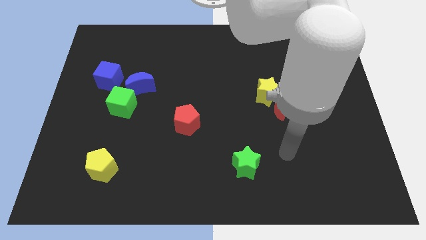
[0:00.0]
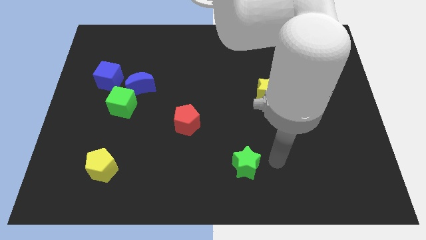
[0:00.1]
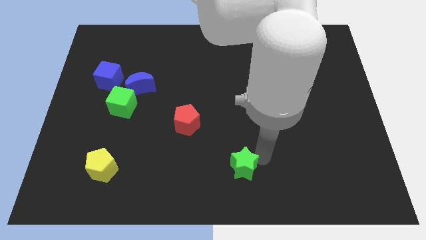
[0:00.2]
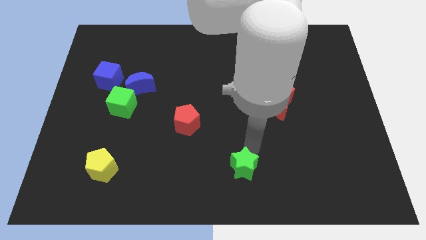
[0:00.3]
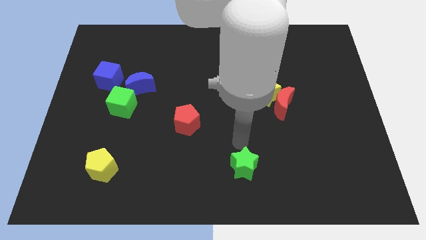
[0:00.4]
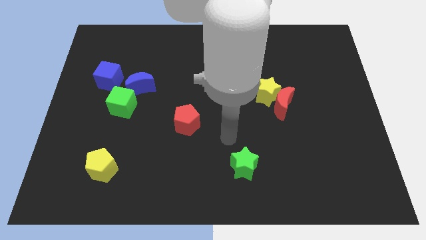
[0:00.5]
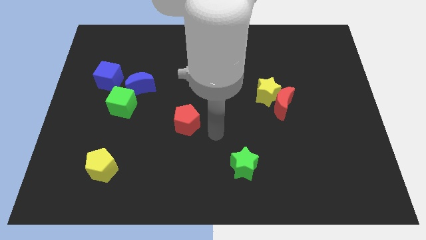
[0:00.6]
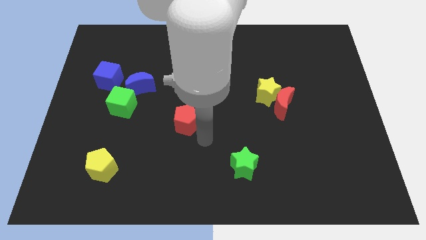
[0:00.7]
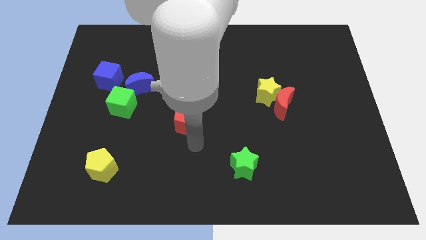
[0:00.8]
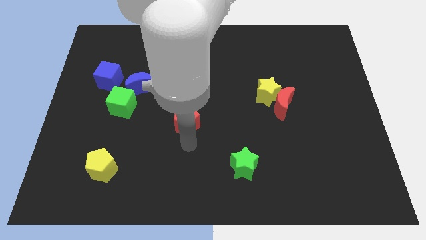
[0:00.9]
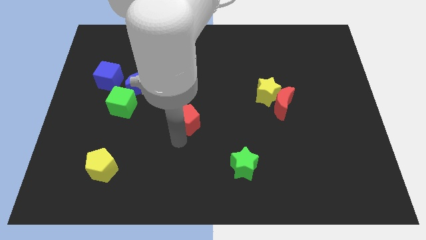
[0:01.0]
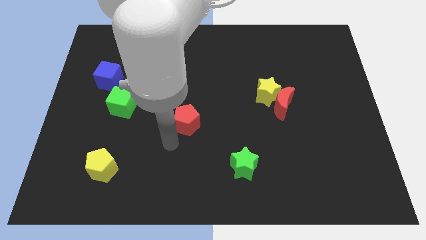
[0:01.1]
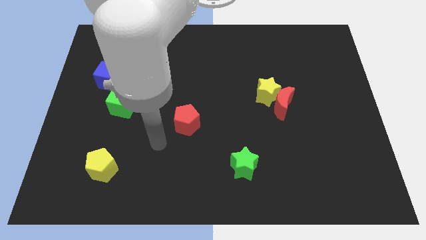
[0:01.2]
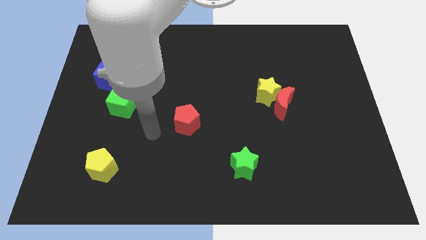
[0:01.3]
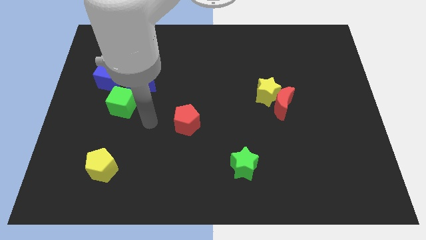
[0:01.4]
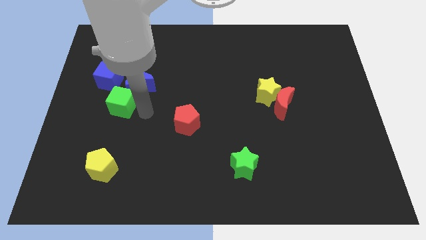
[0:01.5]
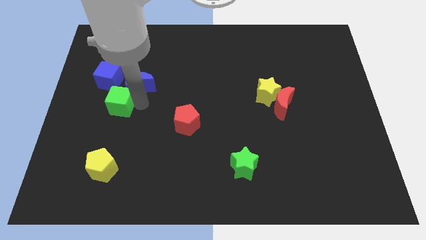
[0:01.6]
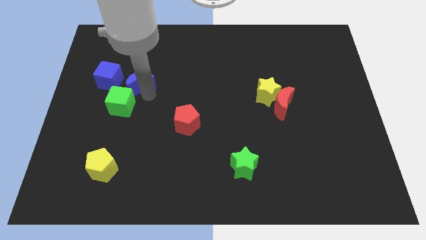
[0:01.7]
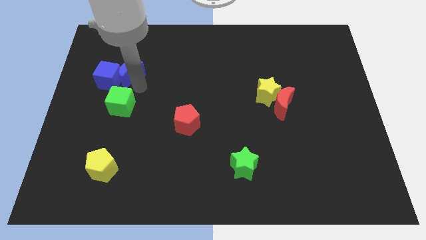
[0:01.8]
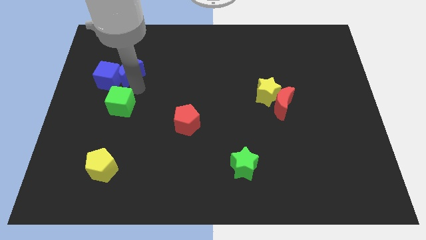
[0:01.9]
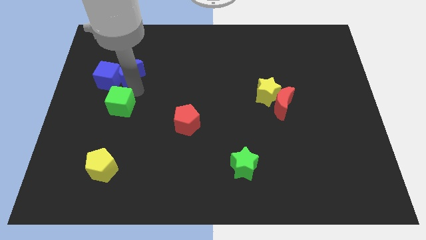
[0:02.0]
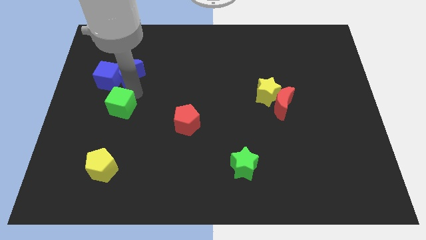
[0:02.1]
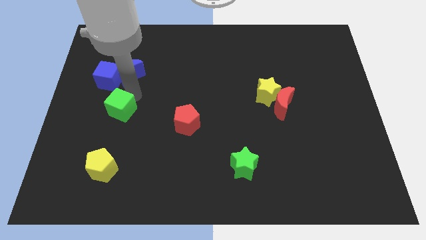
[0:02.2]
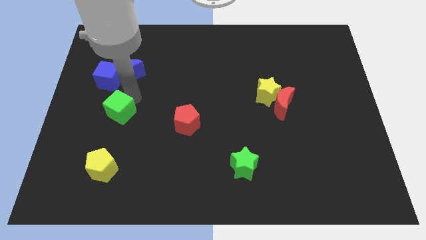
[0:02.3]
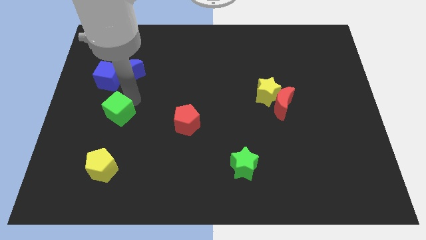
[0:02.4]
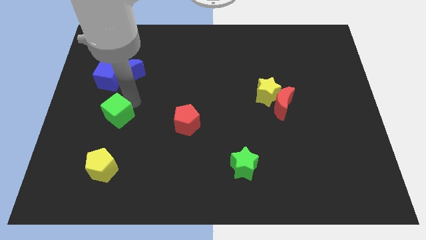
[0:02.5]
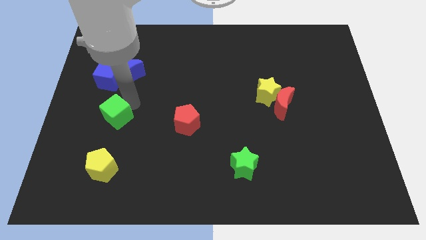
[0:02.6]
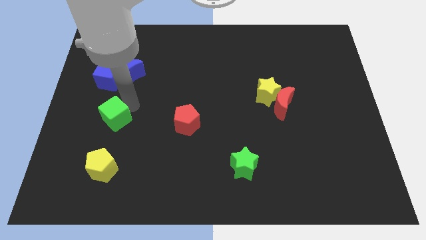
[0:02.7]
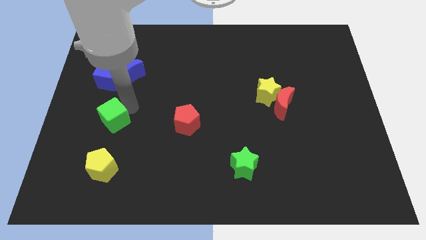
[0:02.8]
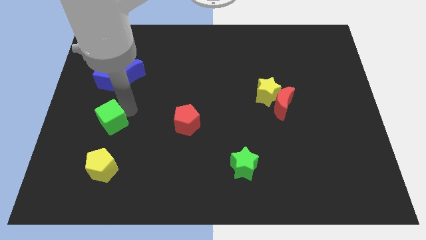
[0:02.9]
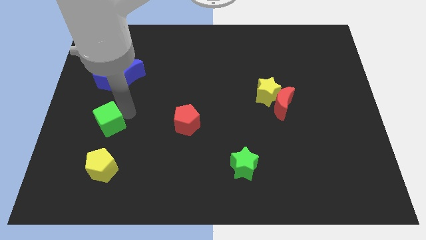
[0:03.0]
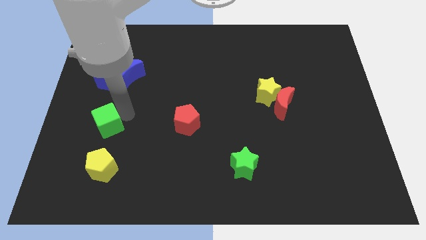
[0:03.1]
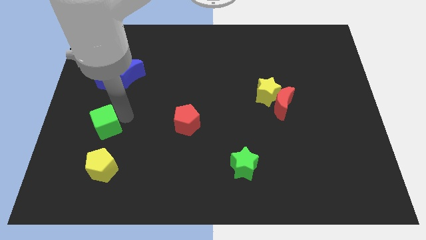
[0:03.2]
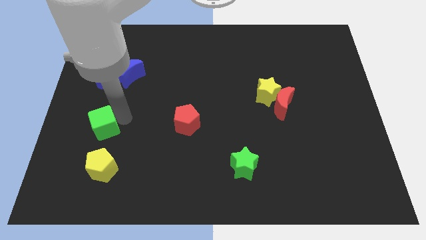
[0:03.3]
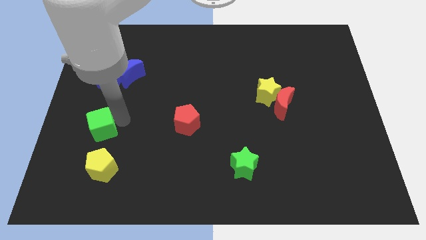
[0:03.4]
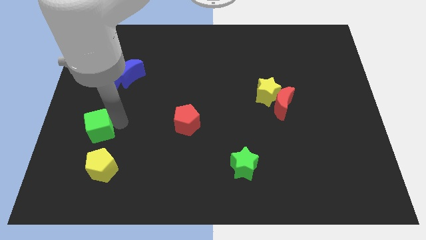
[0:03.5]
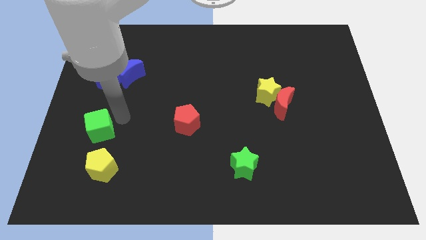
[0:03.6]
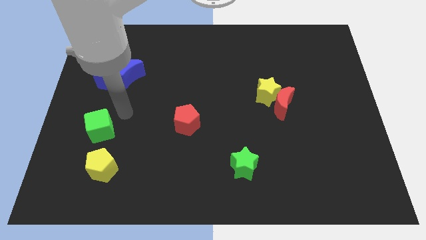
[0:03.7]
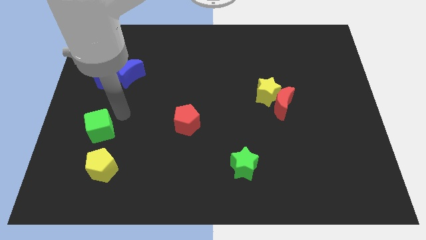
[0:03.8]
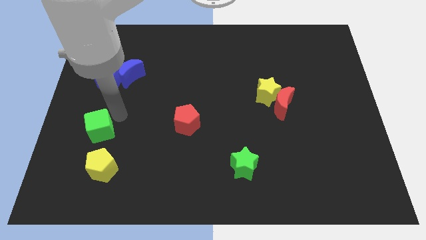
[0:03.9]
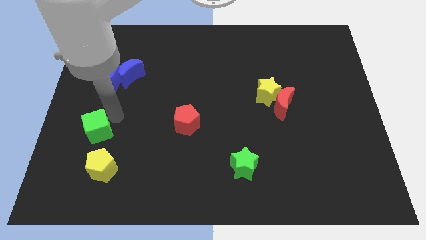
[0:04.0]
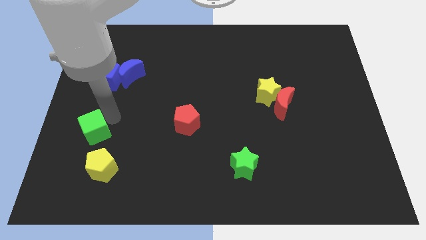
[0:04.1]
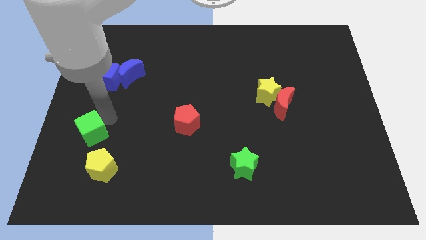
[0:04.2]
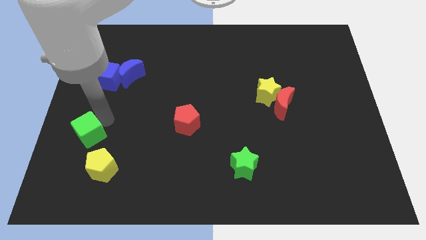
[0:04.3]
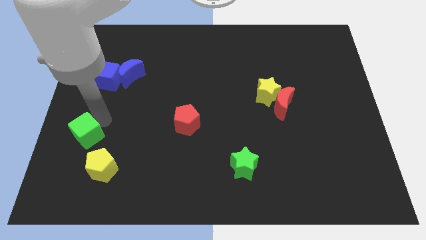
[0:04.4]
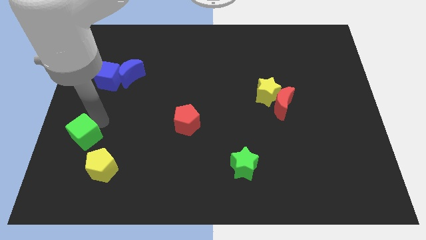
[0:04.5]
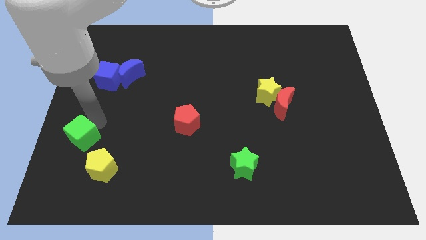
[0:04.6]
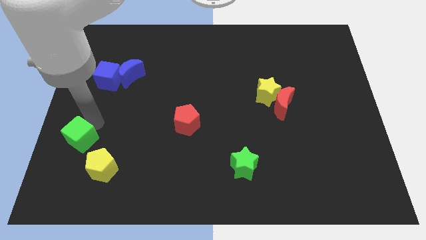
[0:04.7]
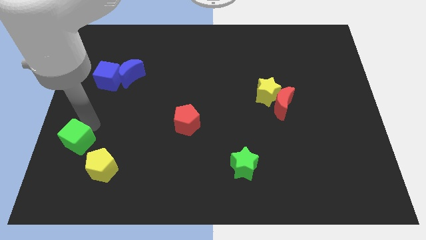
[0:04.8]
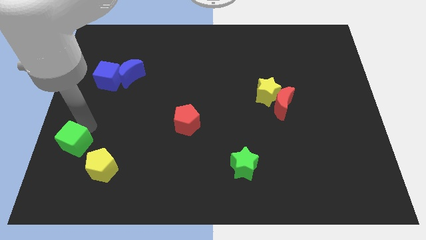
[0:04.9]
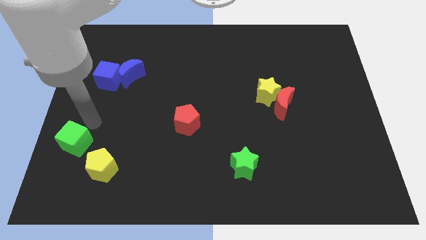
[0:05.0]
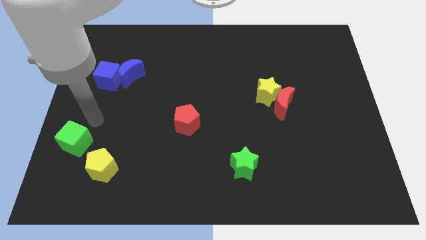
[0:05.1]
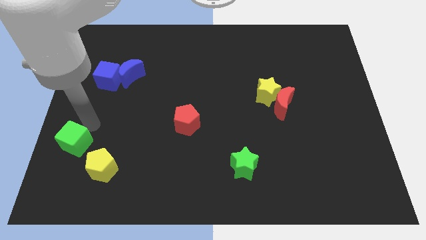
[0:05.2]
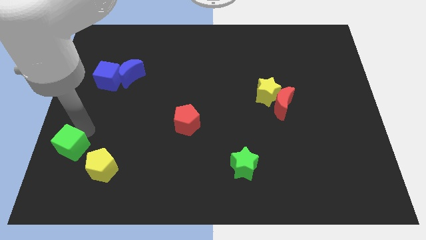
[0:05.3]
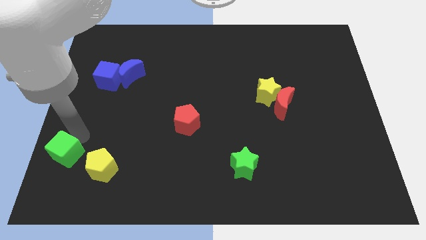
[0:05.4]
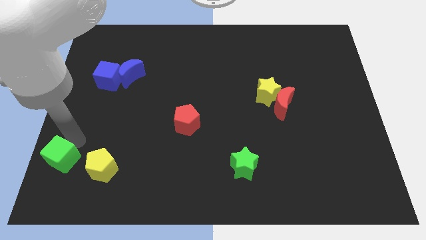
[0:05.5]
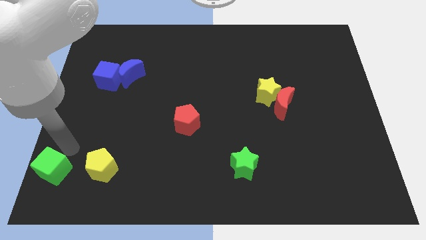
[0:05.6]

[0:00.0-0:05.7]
move the green cube to the bottom left corner

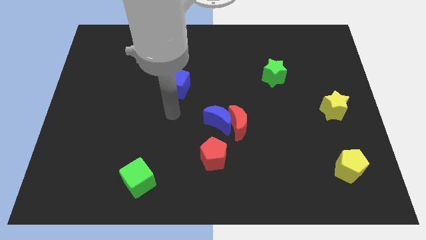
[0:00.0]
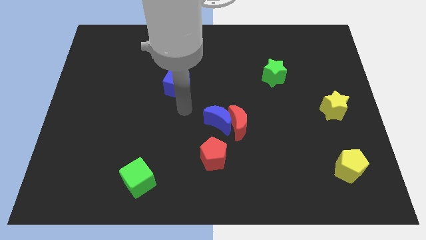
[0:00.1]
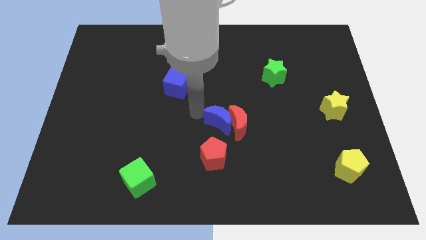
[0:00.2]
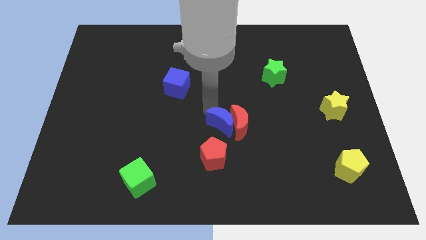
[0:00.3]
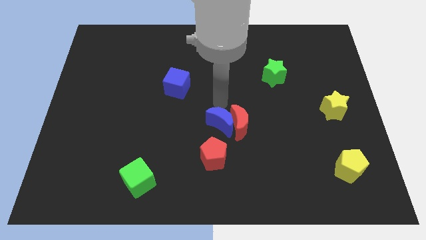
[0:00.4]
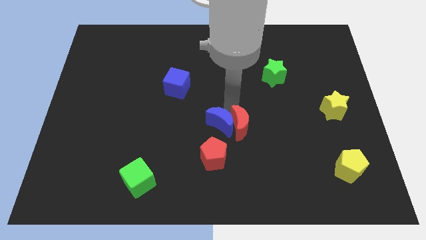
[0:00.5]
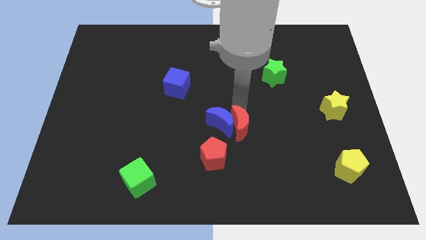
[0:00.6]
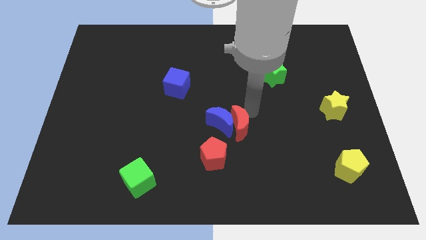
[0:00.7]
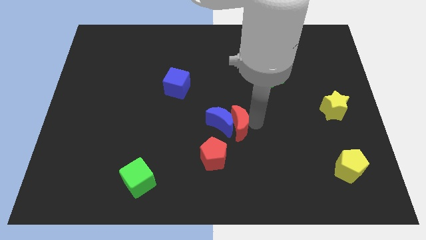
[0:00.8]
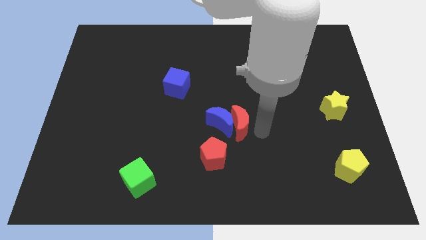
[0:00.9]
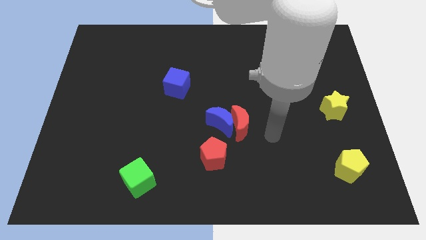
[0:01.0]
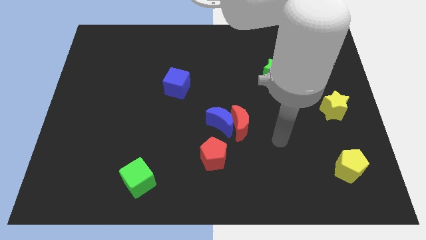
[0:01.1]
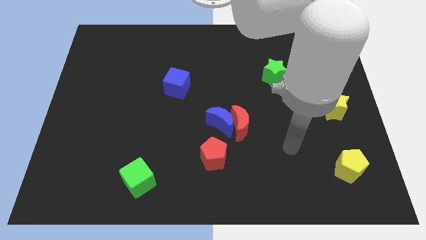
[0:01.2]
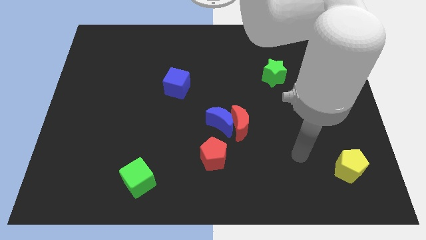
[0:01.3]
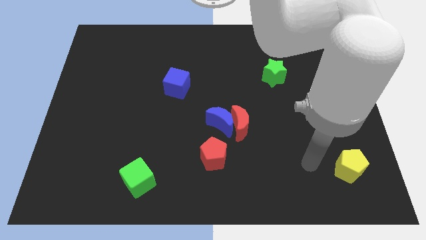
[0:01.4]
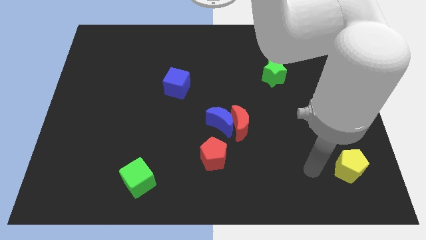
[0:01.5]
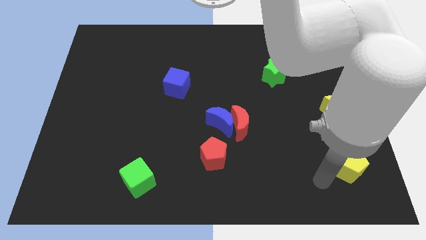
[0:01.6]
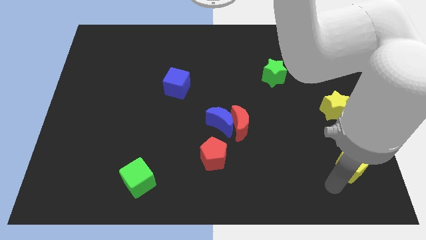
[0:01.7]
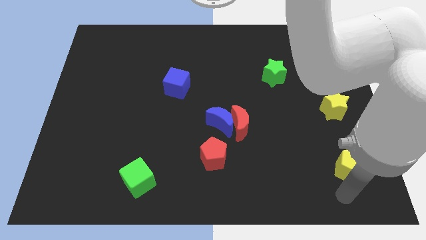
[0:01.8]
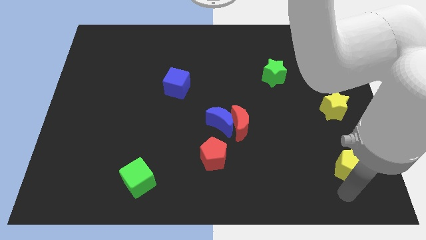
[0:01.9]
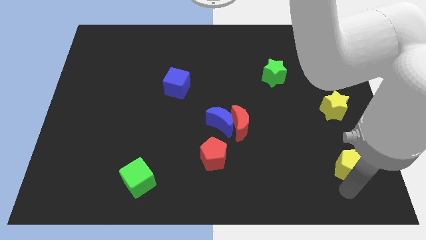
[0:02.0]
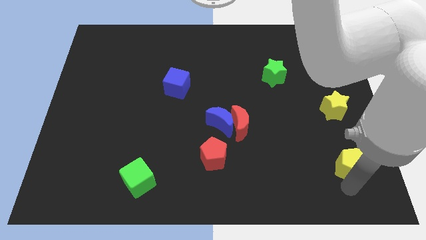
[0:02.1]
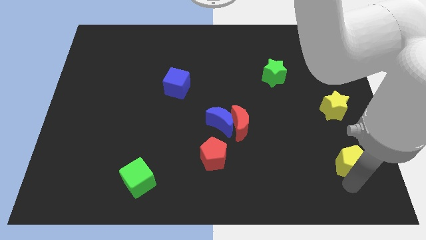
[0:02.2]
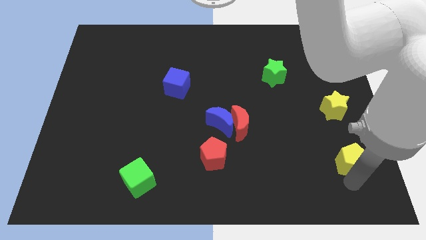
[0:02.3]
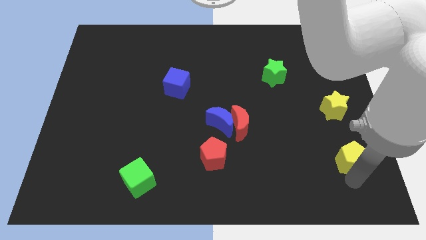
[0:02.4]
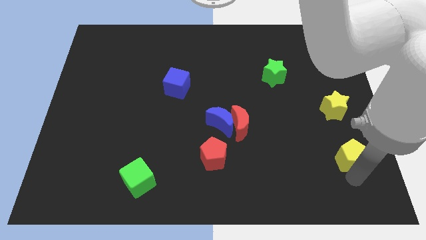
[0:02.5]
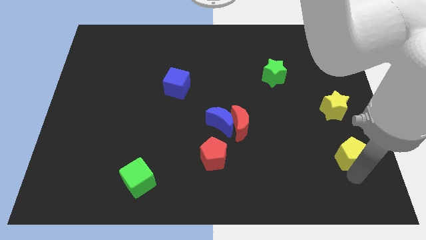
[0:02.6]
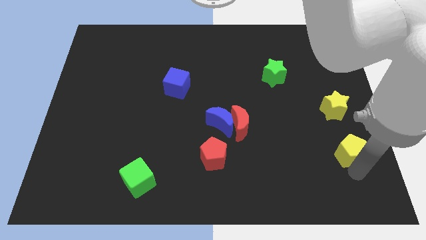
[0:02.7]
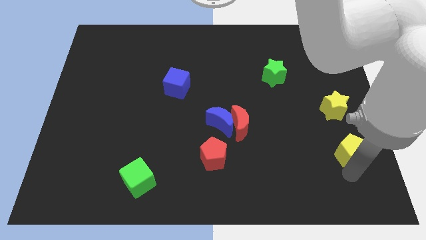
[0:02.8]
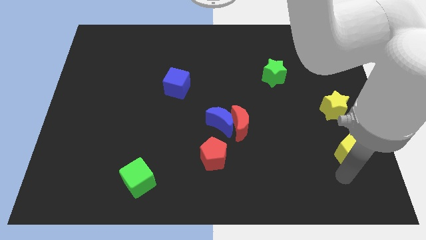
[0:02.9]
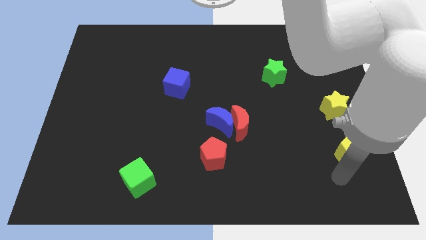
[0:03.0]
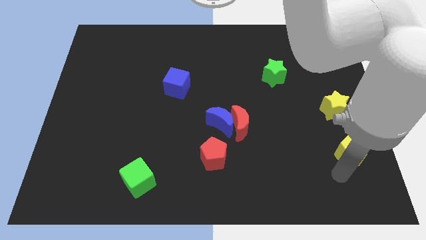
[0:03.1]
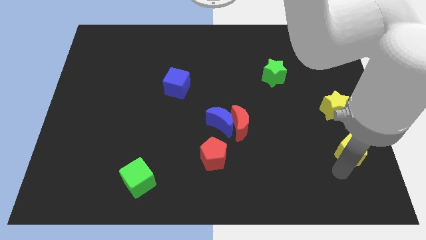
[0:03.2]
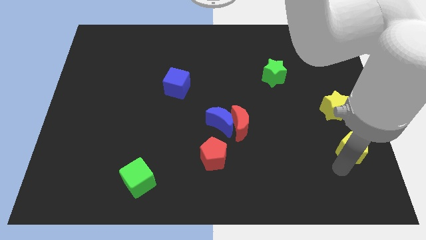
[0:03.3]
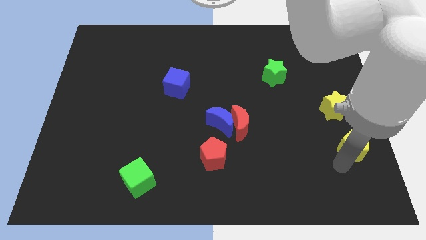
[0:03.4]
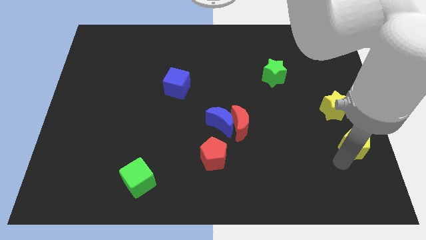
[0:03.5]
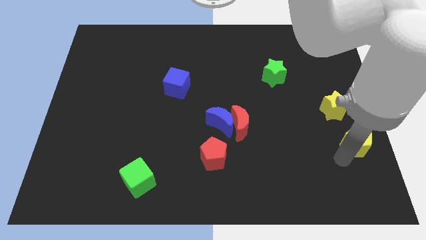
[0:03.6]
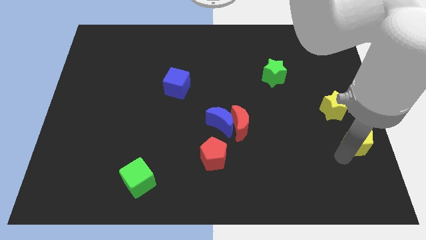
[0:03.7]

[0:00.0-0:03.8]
slide the yellow pentagon to the right side
